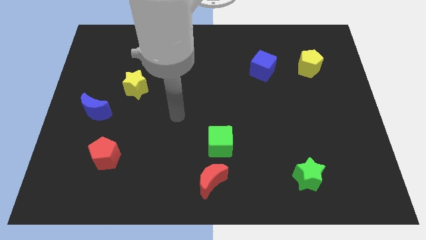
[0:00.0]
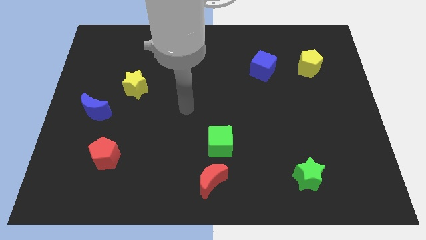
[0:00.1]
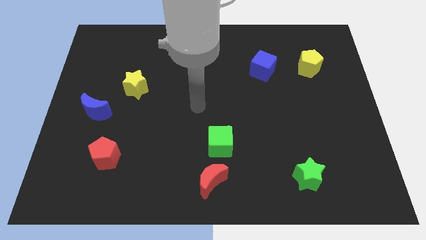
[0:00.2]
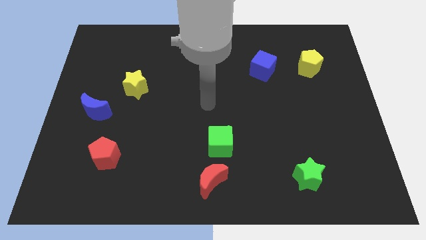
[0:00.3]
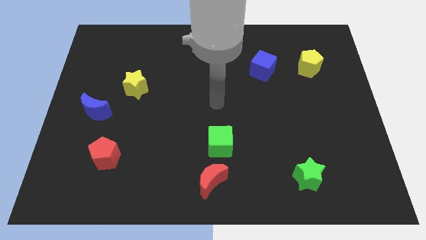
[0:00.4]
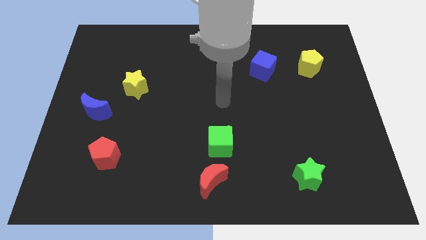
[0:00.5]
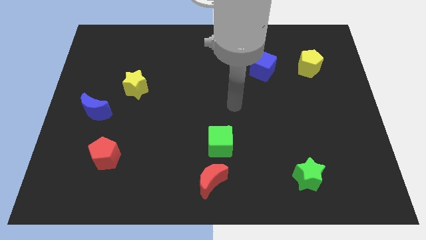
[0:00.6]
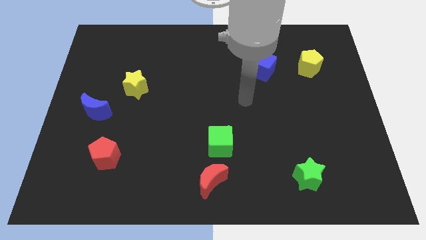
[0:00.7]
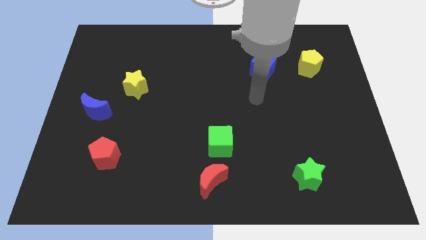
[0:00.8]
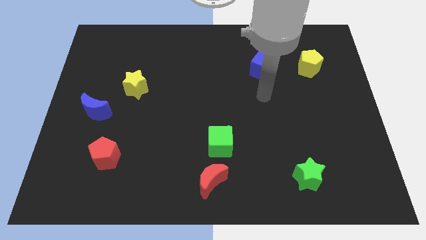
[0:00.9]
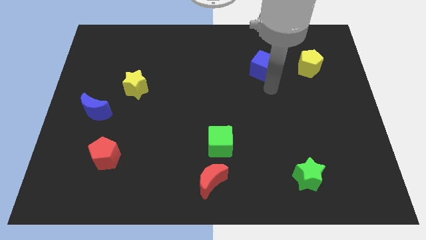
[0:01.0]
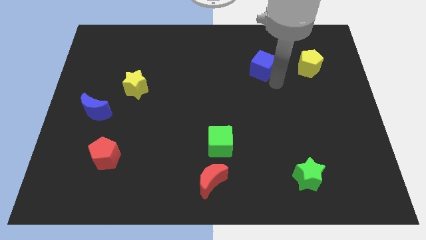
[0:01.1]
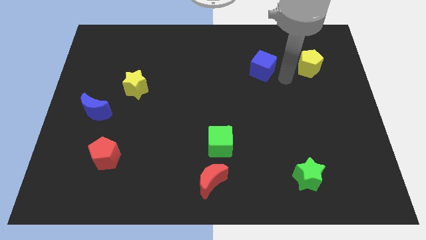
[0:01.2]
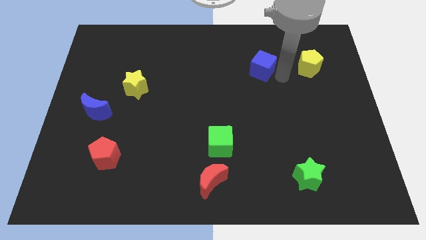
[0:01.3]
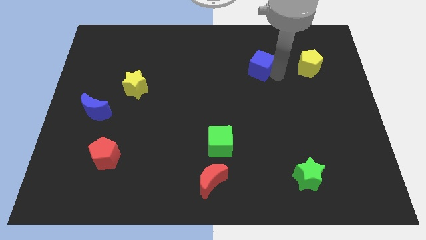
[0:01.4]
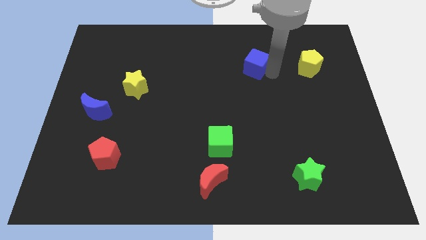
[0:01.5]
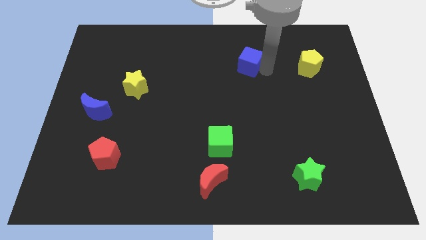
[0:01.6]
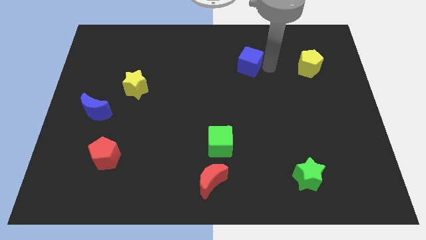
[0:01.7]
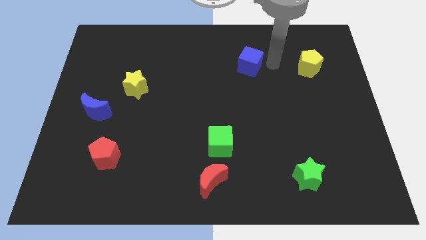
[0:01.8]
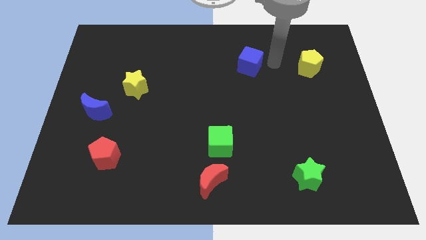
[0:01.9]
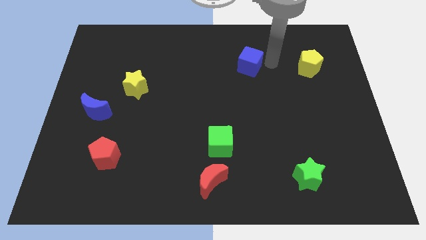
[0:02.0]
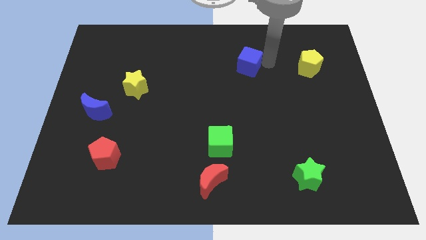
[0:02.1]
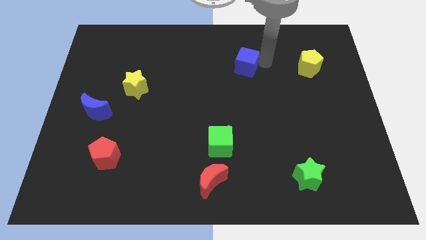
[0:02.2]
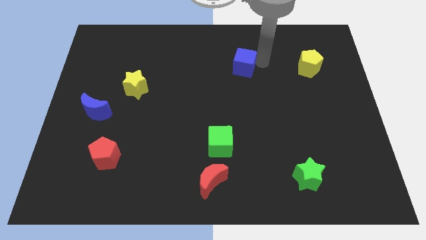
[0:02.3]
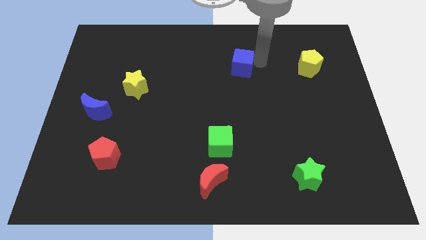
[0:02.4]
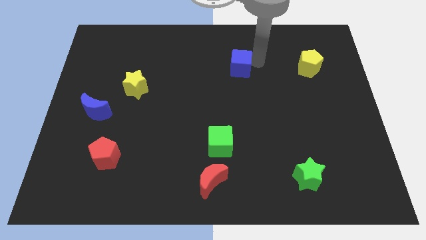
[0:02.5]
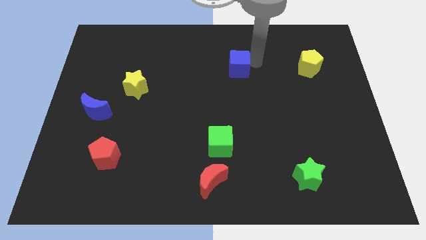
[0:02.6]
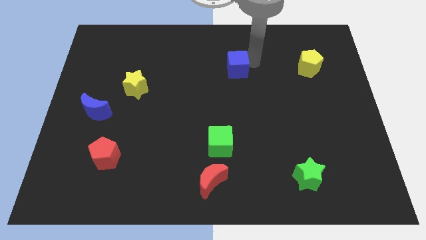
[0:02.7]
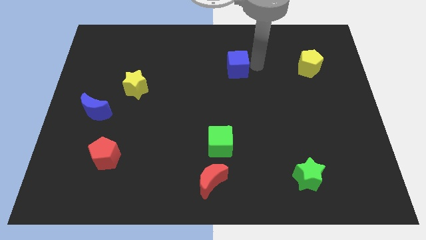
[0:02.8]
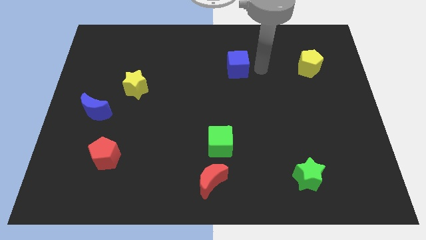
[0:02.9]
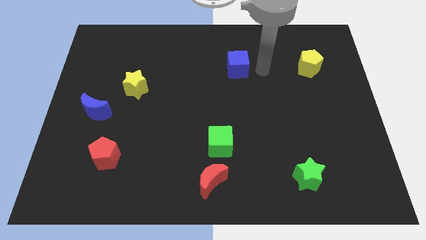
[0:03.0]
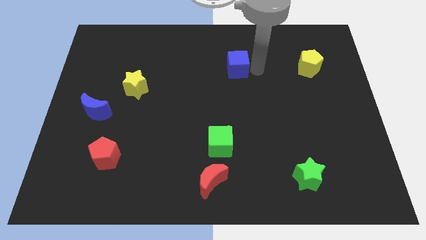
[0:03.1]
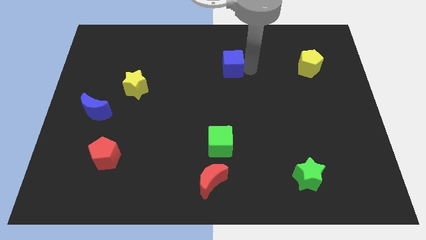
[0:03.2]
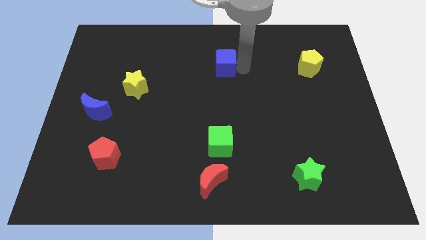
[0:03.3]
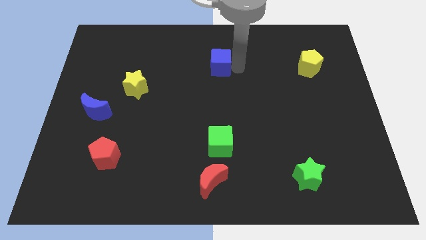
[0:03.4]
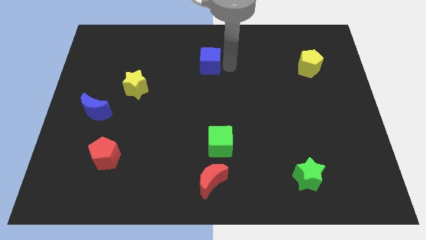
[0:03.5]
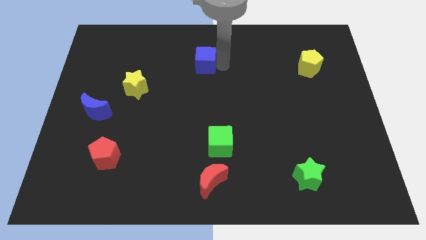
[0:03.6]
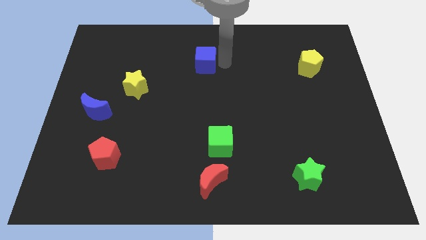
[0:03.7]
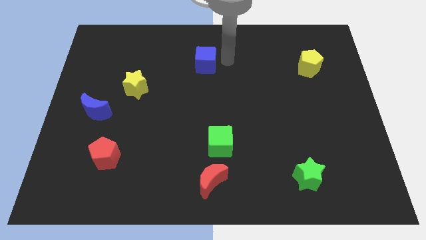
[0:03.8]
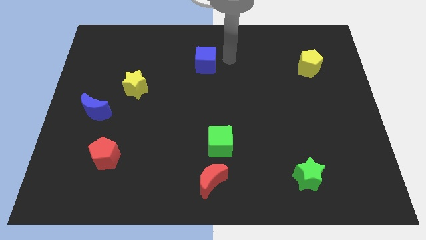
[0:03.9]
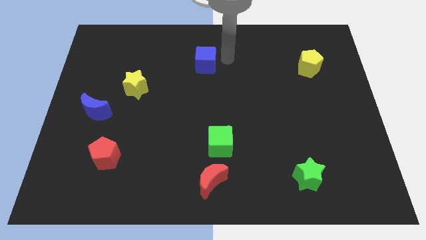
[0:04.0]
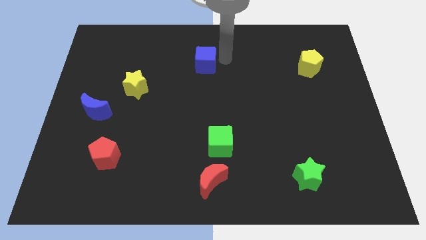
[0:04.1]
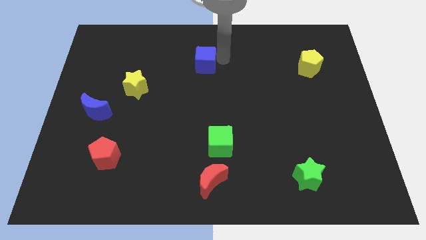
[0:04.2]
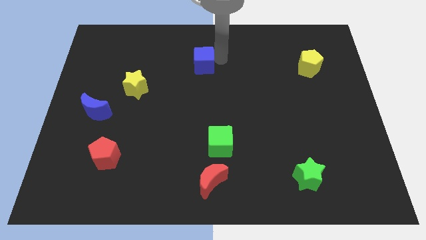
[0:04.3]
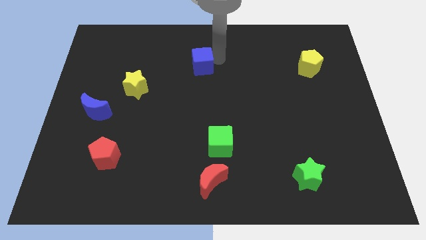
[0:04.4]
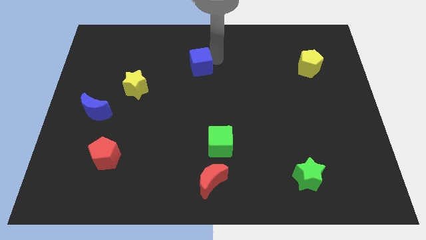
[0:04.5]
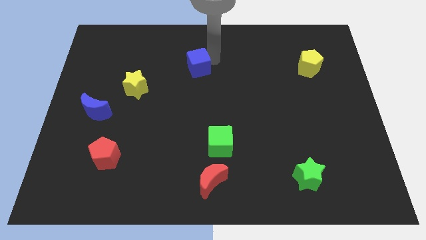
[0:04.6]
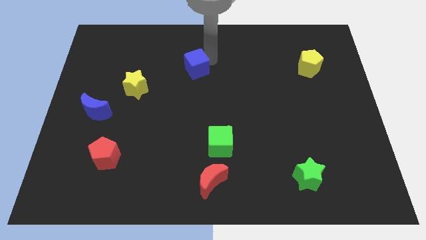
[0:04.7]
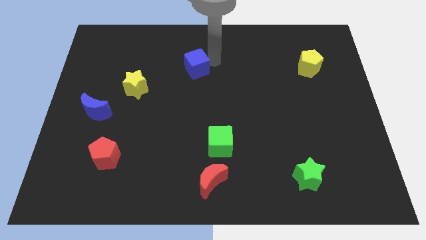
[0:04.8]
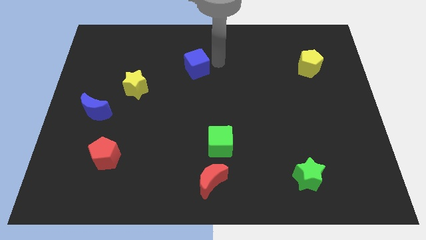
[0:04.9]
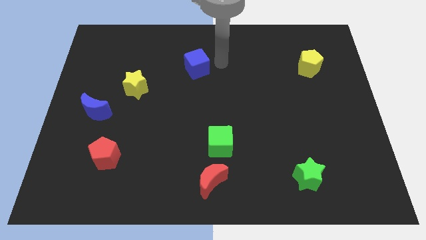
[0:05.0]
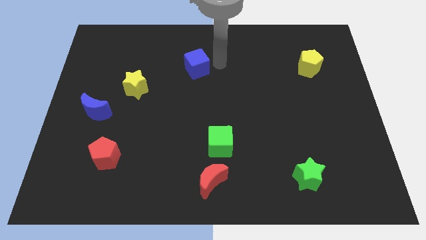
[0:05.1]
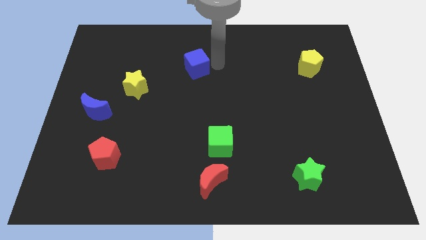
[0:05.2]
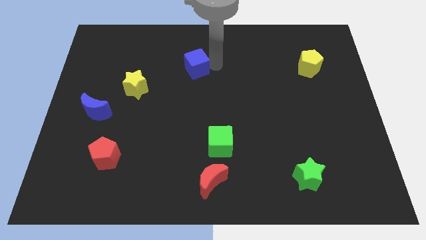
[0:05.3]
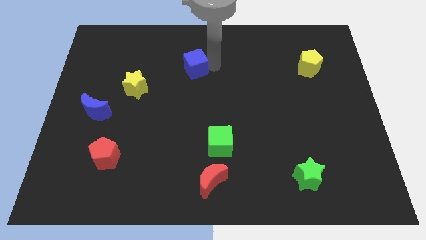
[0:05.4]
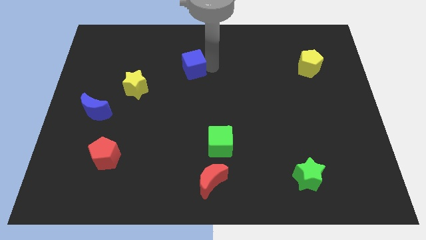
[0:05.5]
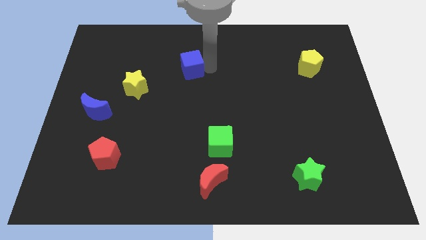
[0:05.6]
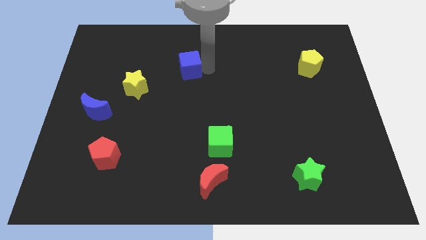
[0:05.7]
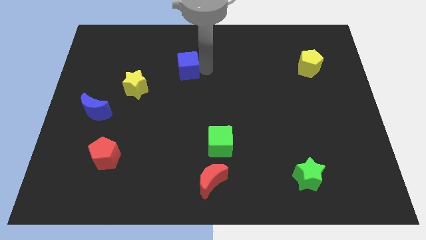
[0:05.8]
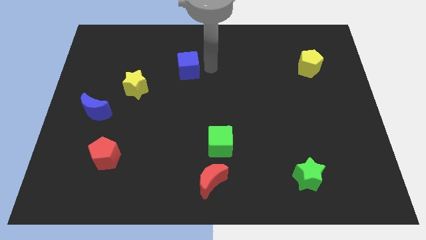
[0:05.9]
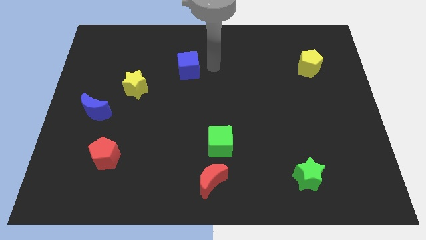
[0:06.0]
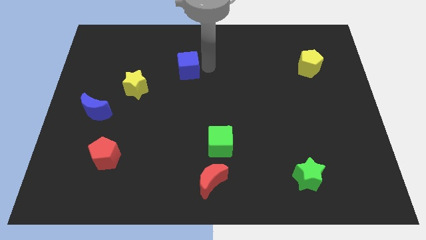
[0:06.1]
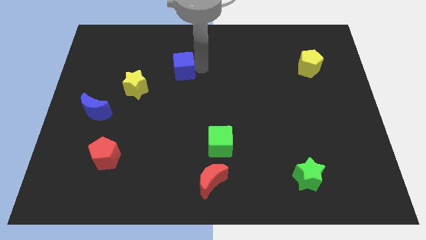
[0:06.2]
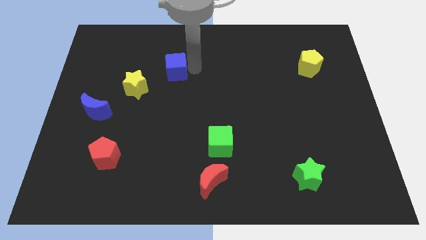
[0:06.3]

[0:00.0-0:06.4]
push the blue cube to the top right of the yellow star
